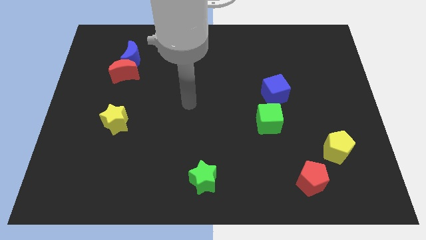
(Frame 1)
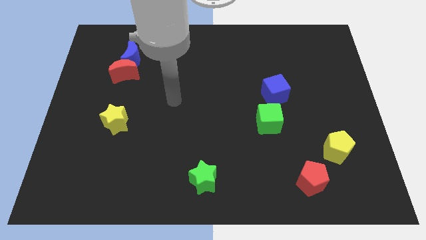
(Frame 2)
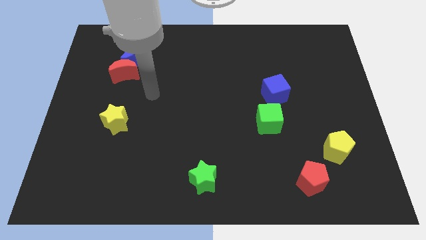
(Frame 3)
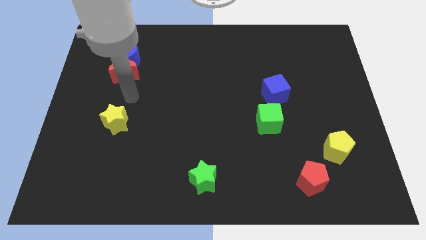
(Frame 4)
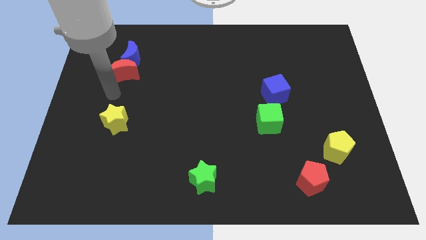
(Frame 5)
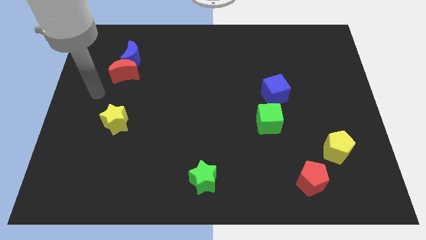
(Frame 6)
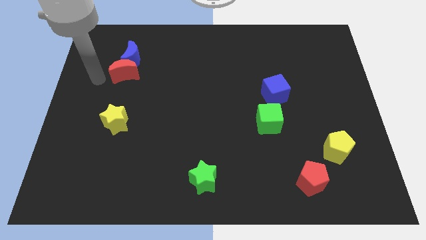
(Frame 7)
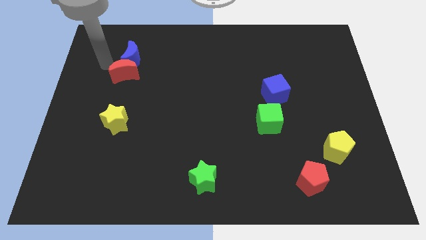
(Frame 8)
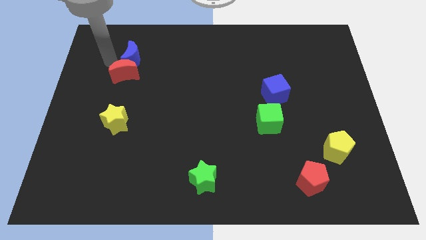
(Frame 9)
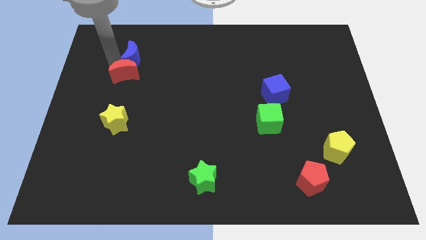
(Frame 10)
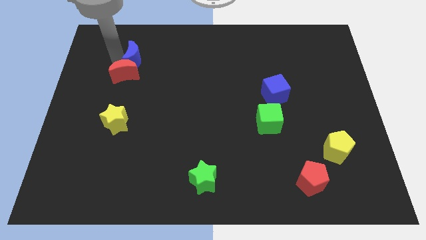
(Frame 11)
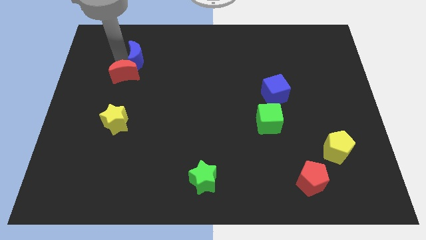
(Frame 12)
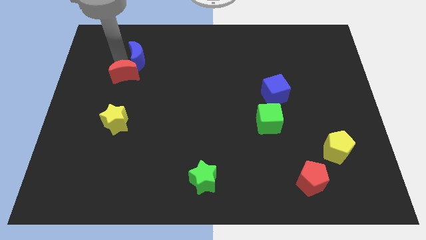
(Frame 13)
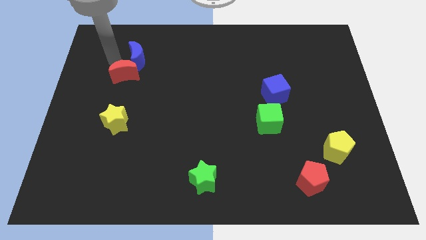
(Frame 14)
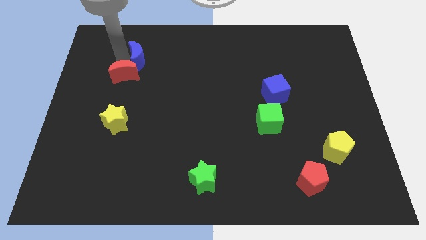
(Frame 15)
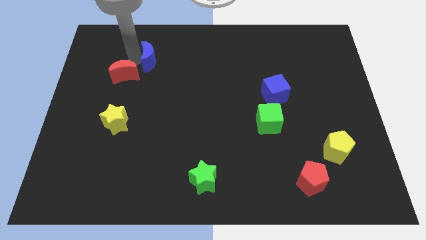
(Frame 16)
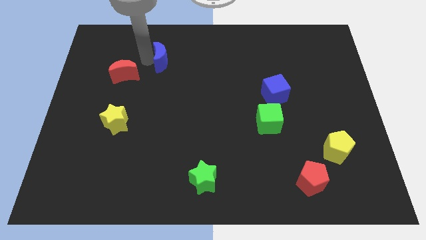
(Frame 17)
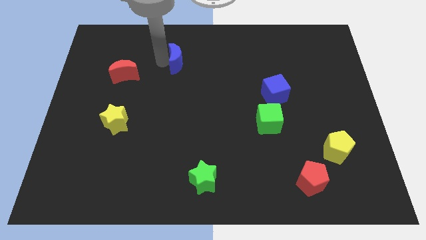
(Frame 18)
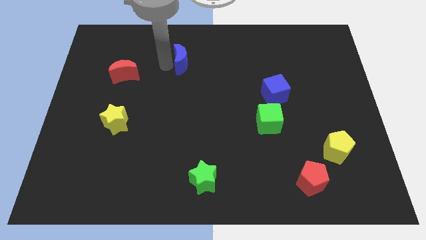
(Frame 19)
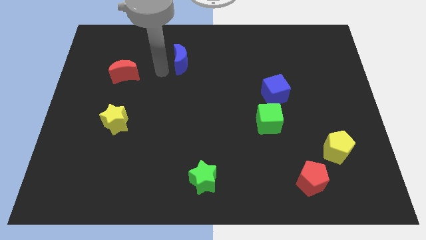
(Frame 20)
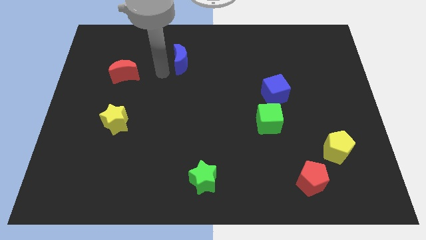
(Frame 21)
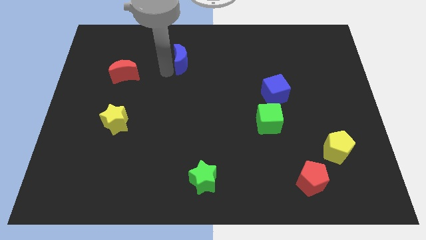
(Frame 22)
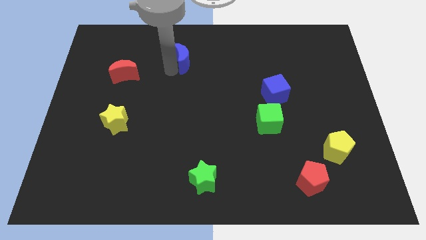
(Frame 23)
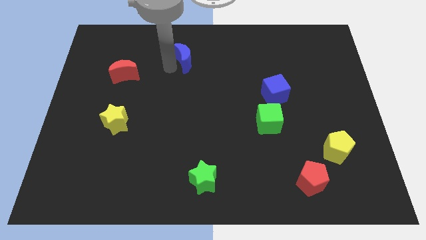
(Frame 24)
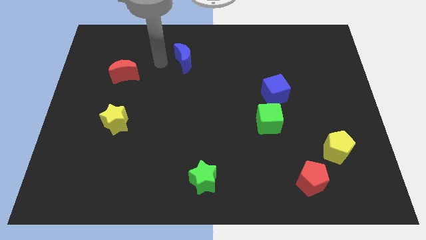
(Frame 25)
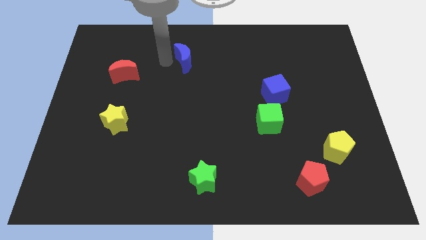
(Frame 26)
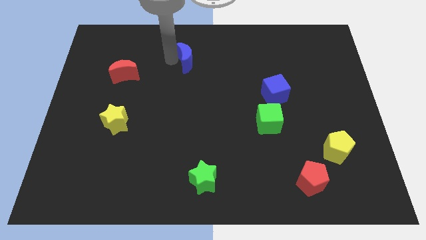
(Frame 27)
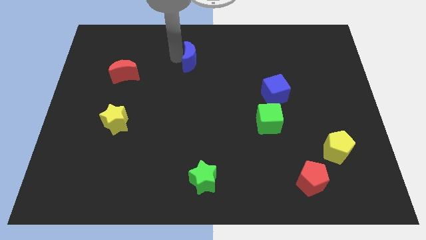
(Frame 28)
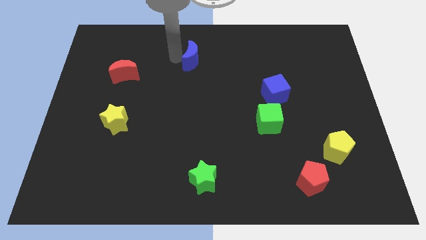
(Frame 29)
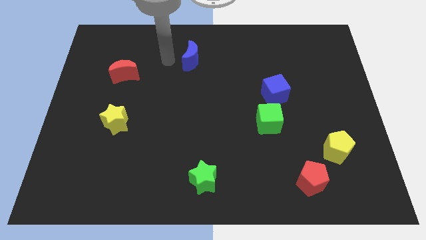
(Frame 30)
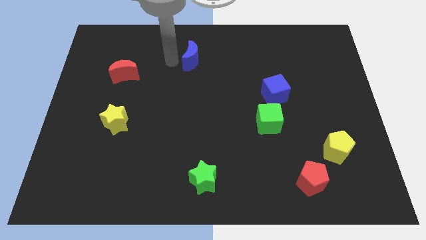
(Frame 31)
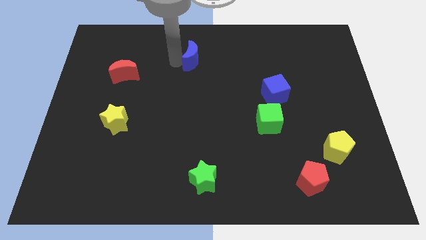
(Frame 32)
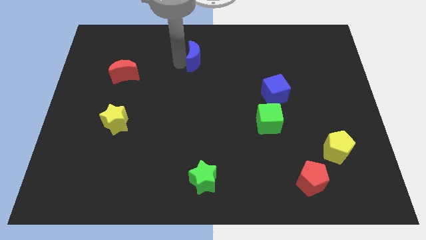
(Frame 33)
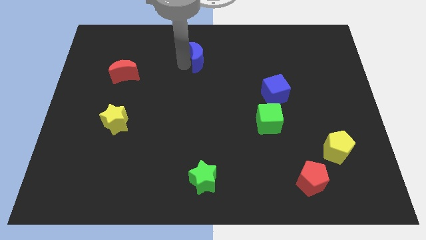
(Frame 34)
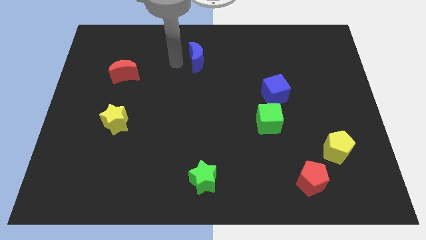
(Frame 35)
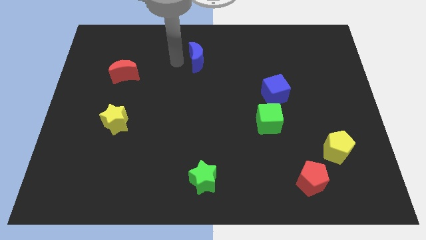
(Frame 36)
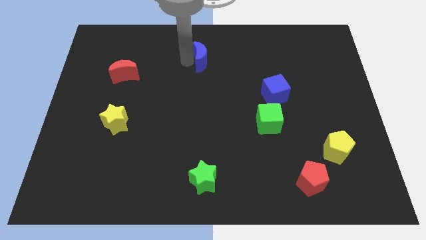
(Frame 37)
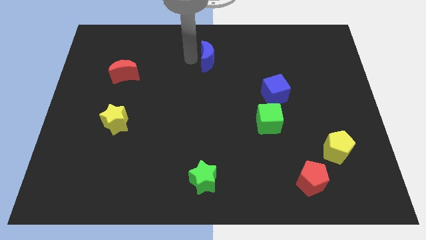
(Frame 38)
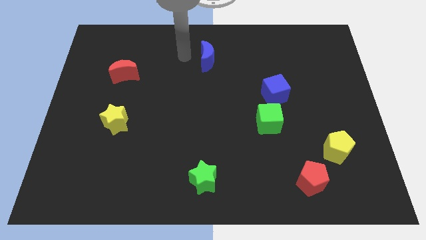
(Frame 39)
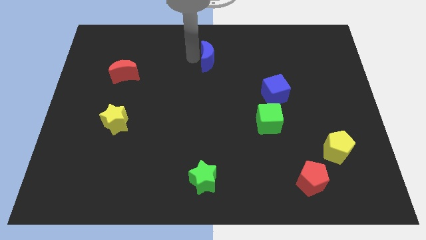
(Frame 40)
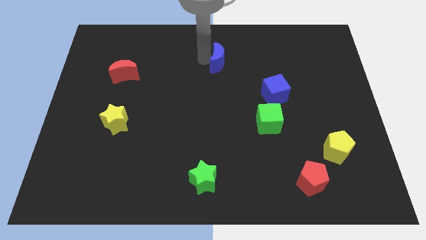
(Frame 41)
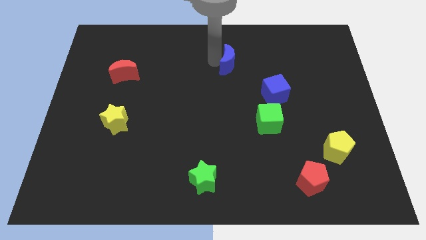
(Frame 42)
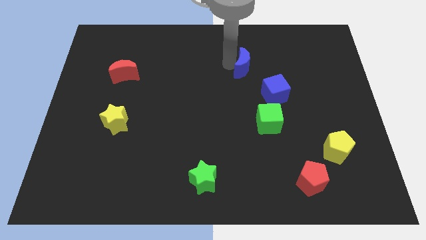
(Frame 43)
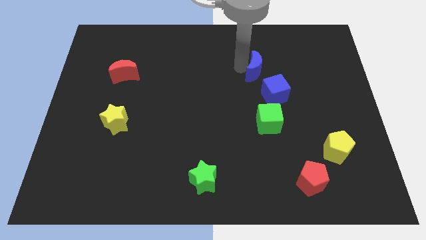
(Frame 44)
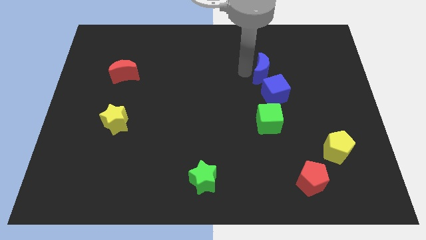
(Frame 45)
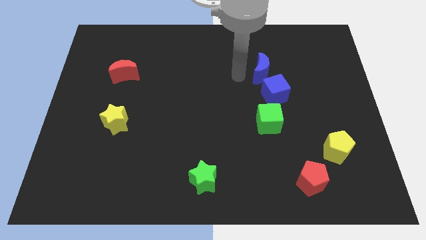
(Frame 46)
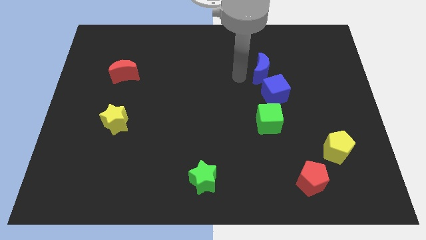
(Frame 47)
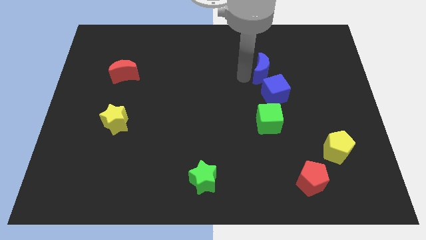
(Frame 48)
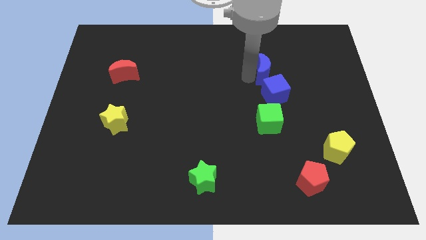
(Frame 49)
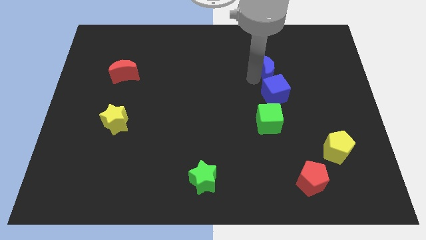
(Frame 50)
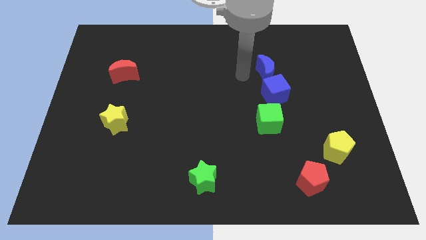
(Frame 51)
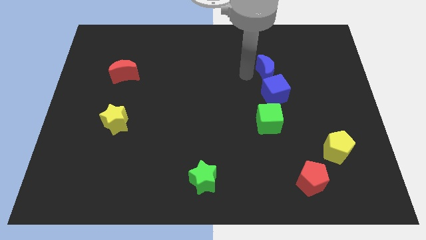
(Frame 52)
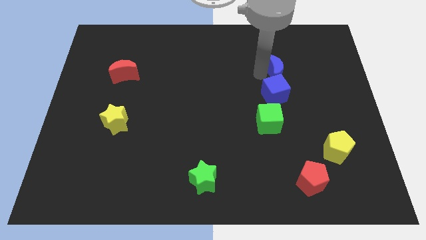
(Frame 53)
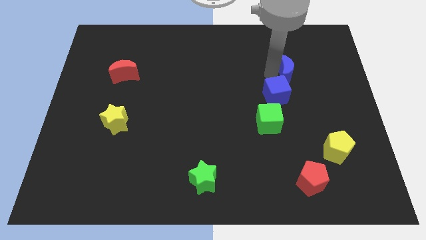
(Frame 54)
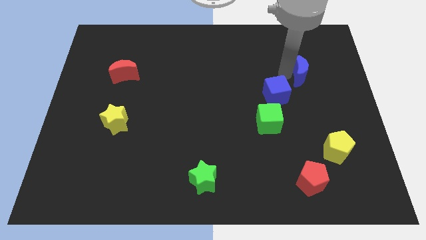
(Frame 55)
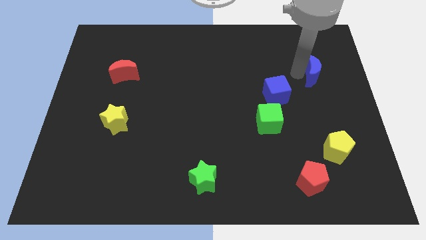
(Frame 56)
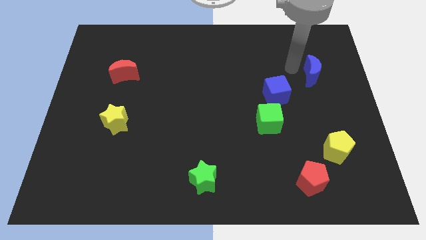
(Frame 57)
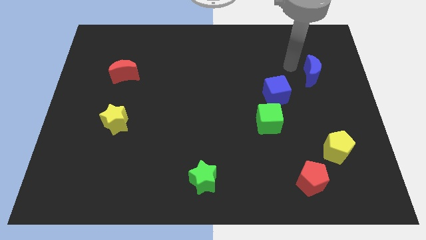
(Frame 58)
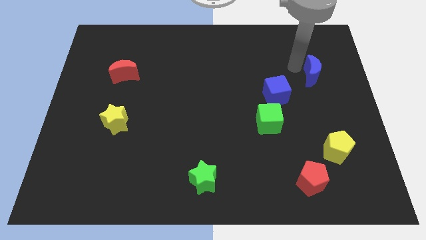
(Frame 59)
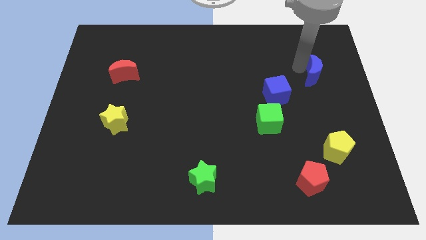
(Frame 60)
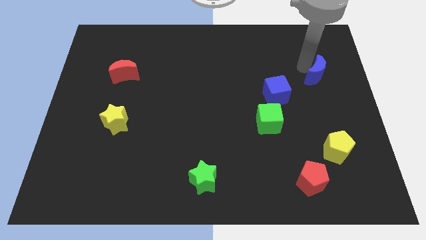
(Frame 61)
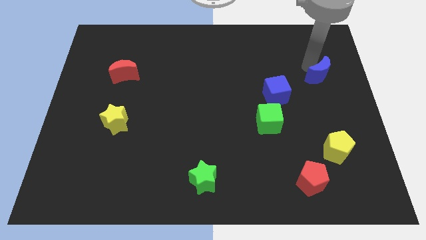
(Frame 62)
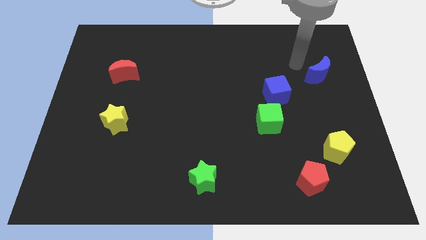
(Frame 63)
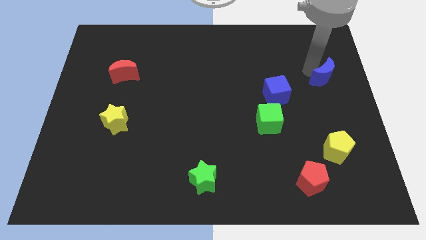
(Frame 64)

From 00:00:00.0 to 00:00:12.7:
move the blue moon to the right side of the board

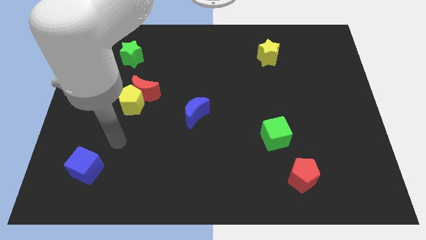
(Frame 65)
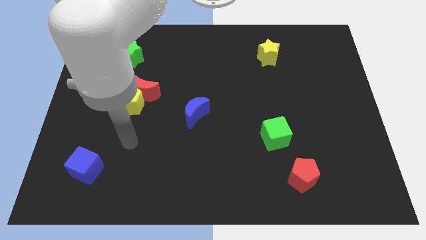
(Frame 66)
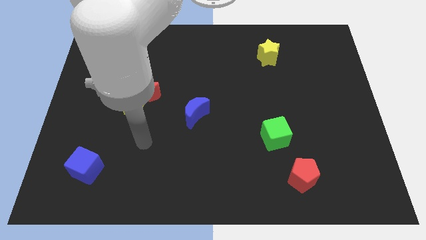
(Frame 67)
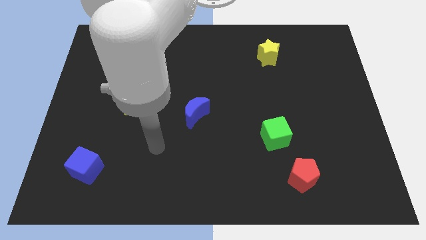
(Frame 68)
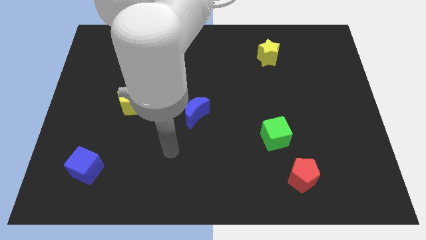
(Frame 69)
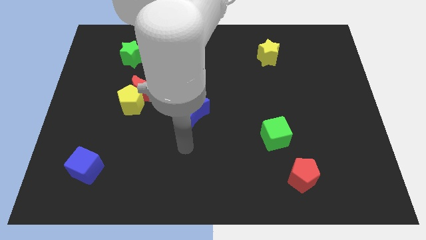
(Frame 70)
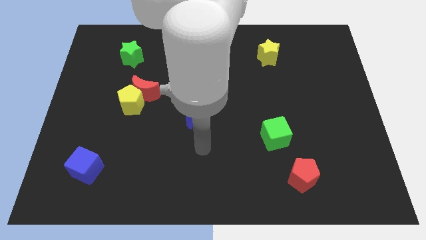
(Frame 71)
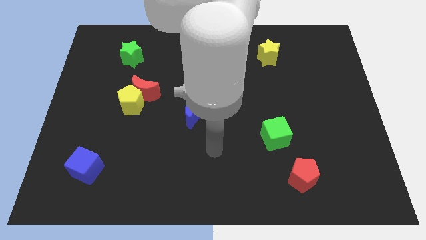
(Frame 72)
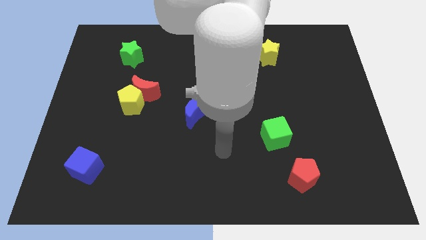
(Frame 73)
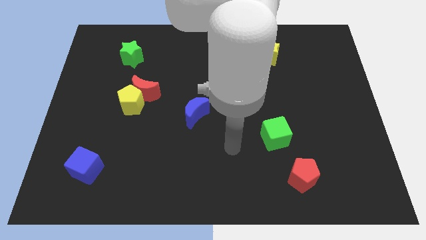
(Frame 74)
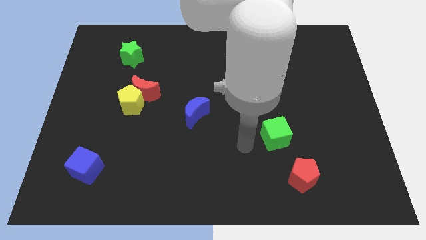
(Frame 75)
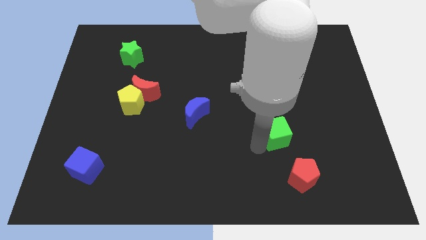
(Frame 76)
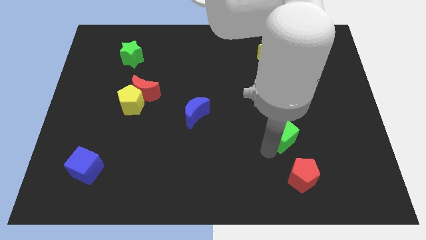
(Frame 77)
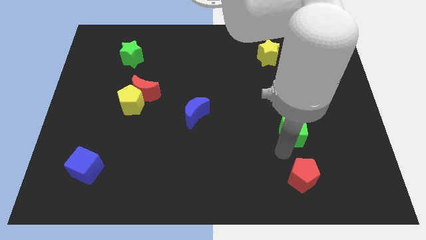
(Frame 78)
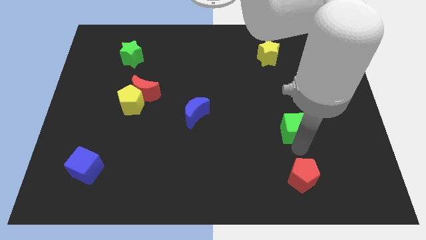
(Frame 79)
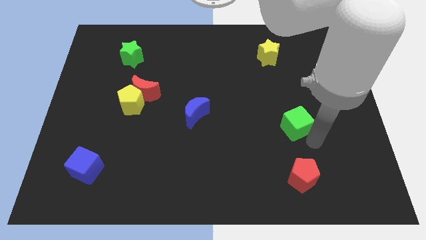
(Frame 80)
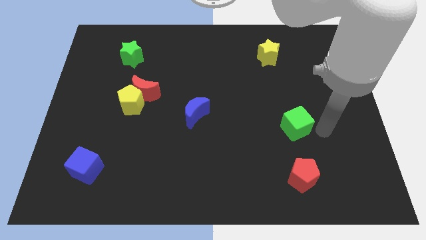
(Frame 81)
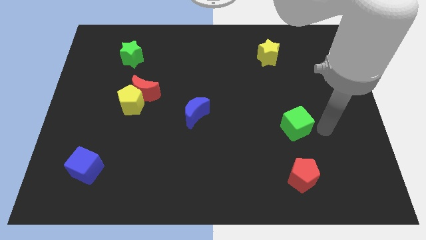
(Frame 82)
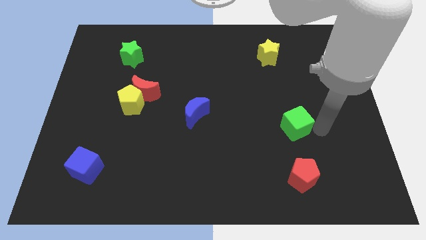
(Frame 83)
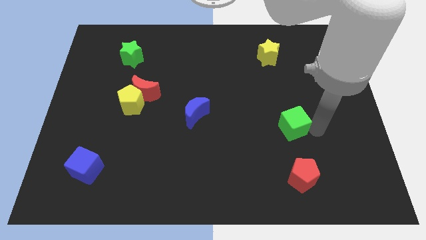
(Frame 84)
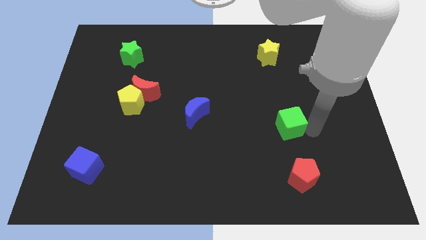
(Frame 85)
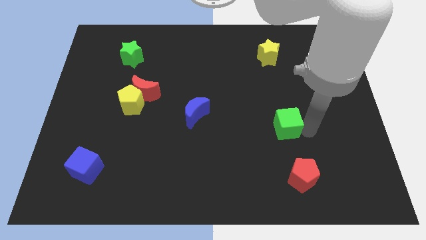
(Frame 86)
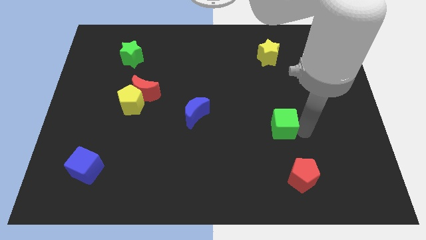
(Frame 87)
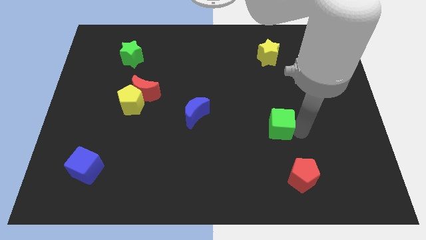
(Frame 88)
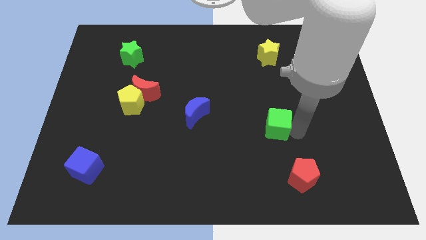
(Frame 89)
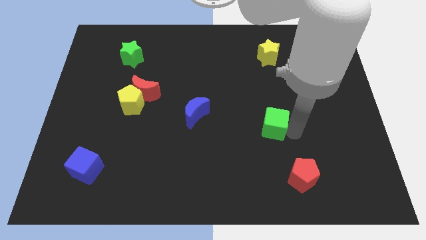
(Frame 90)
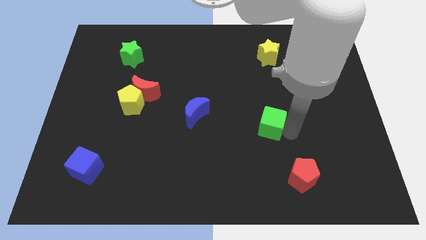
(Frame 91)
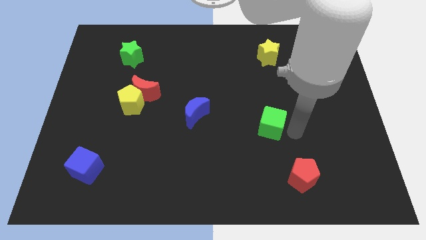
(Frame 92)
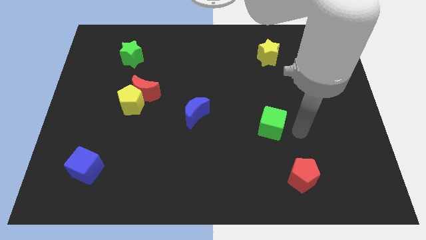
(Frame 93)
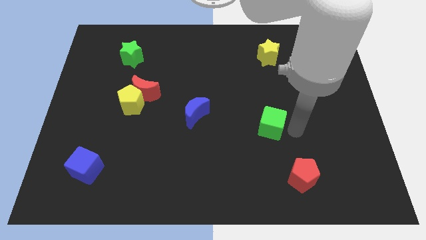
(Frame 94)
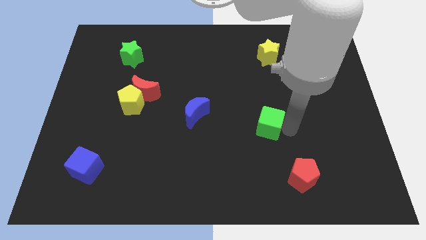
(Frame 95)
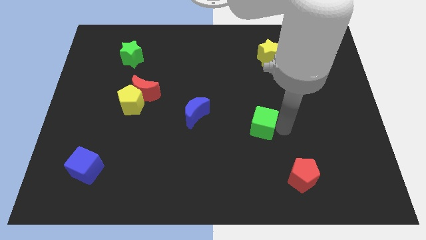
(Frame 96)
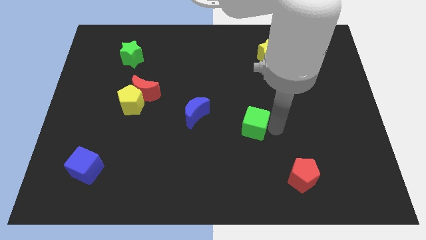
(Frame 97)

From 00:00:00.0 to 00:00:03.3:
push the green cube to the center of the board
